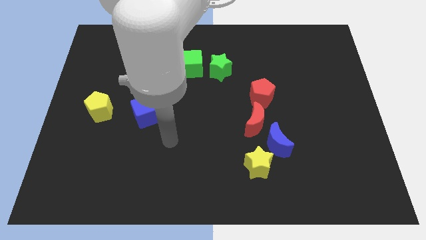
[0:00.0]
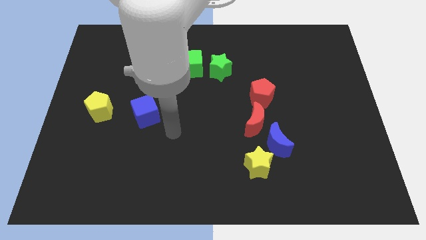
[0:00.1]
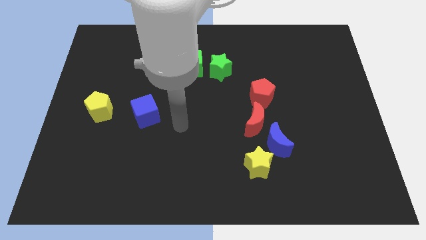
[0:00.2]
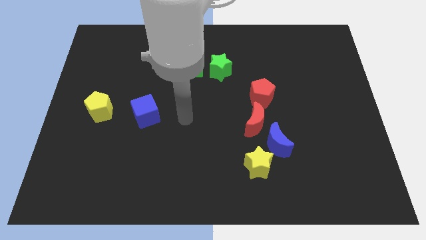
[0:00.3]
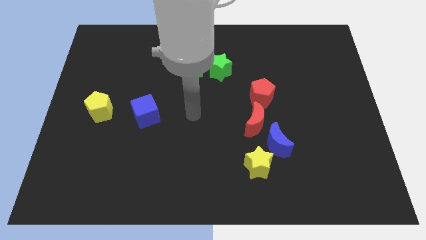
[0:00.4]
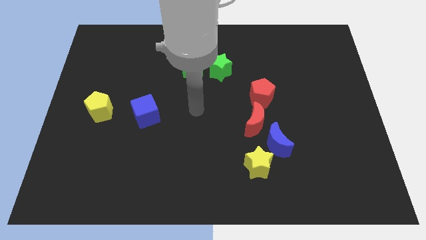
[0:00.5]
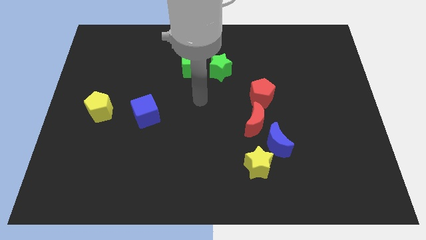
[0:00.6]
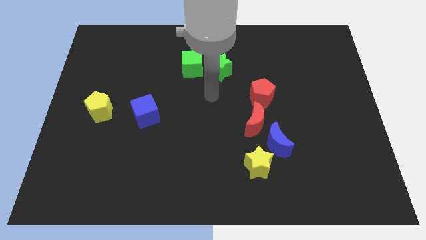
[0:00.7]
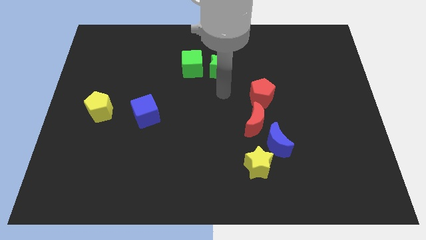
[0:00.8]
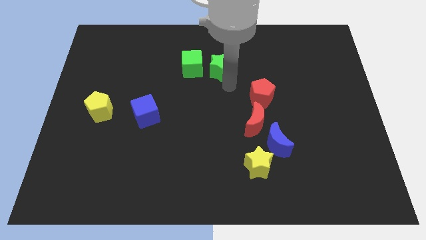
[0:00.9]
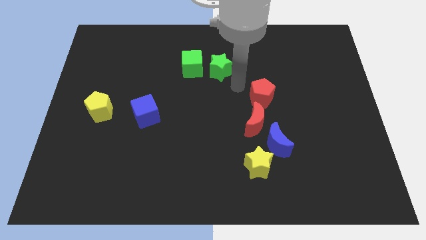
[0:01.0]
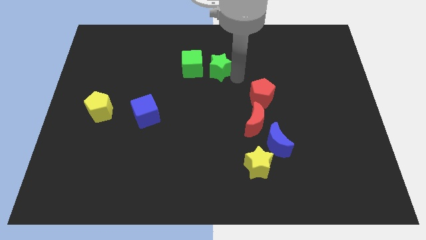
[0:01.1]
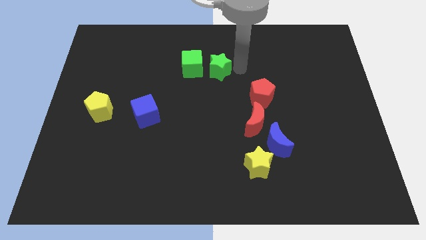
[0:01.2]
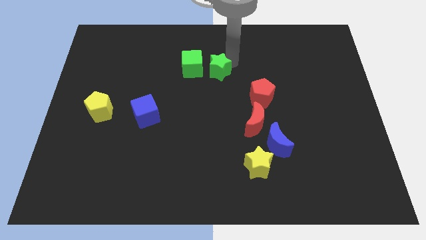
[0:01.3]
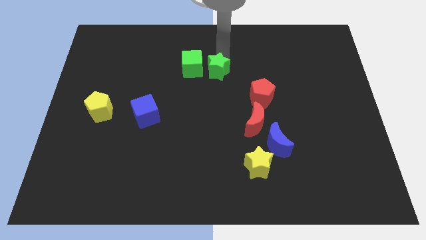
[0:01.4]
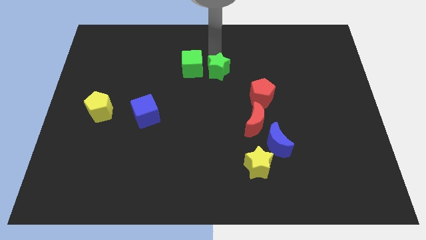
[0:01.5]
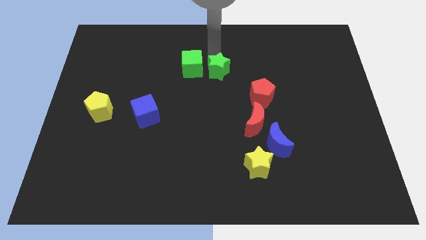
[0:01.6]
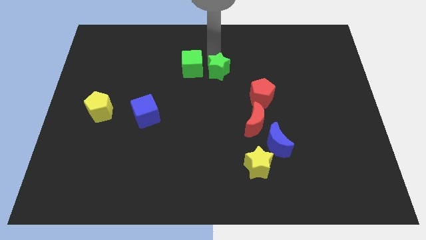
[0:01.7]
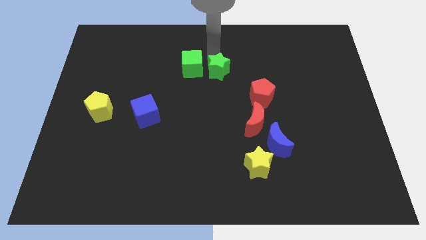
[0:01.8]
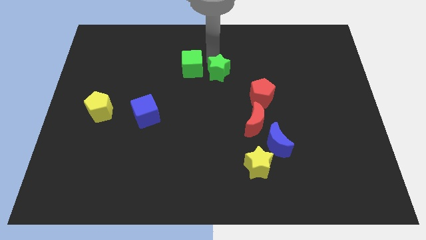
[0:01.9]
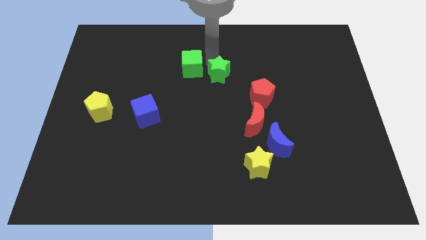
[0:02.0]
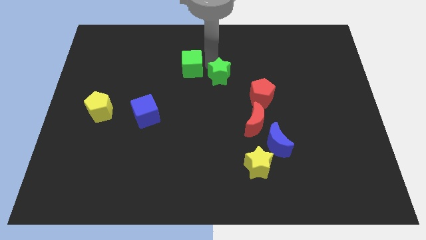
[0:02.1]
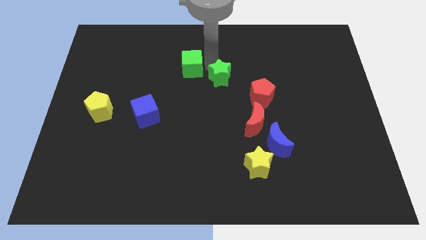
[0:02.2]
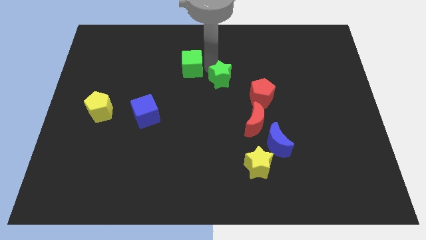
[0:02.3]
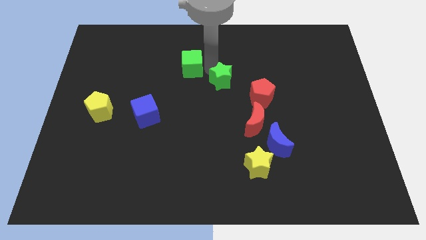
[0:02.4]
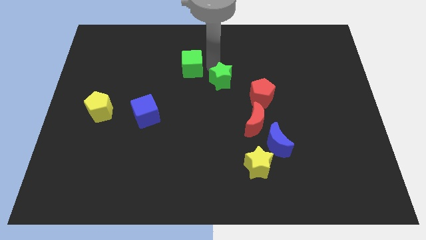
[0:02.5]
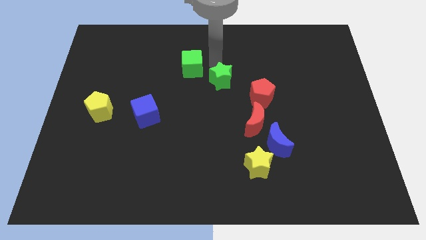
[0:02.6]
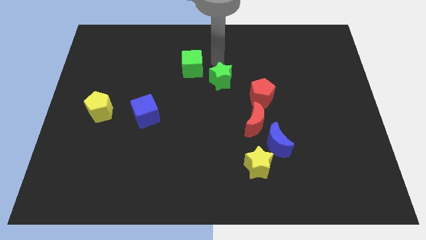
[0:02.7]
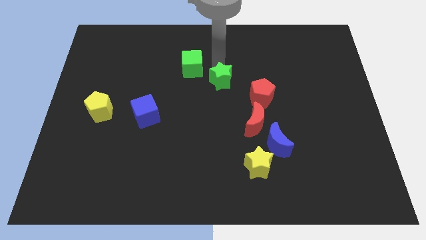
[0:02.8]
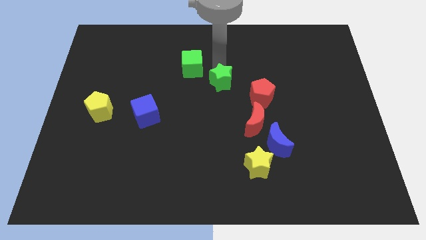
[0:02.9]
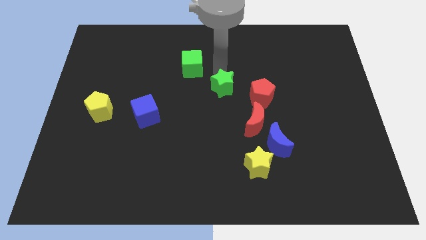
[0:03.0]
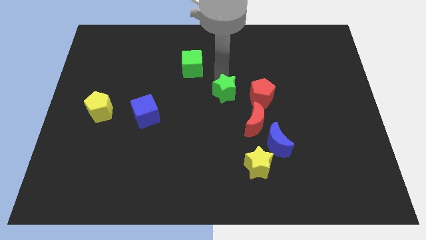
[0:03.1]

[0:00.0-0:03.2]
slightly slide the green star down

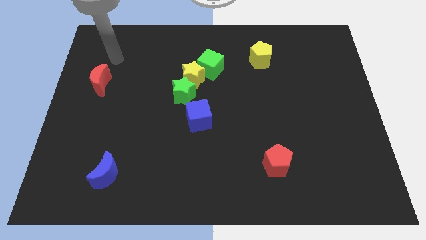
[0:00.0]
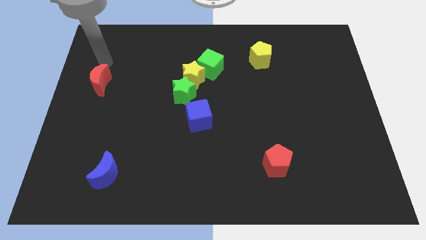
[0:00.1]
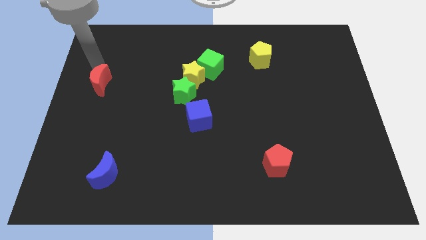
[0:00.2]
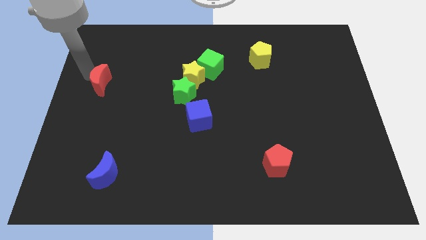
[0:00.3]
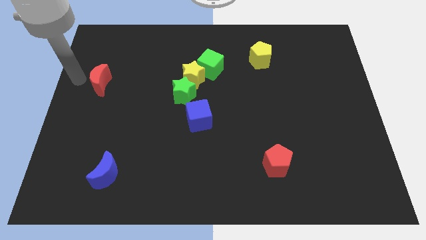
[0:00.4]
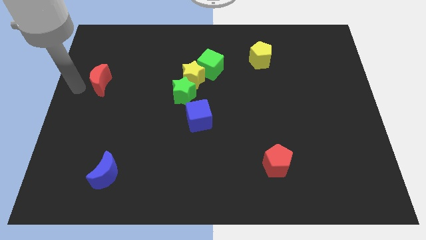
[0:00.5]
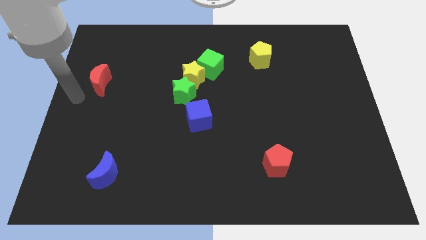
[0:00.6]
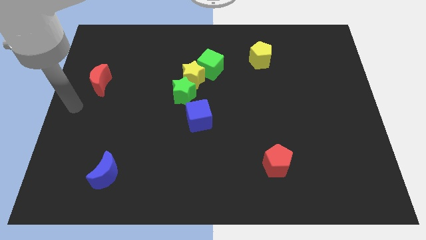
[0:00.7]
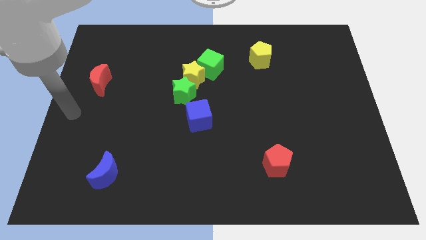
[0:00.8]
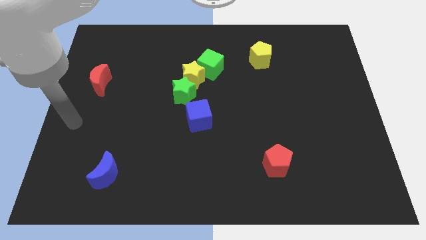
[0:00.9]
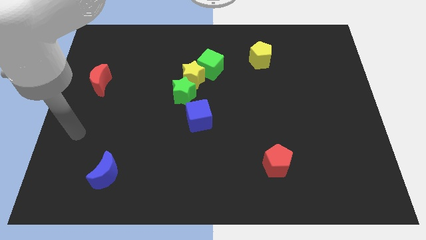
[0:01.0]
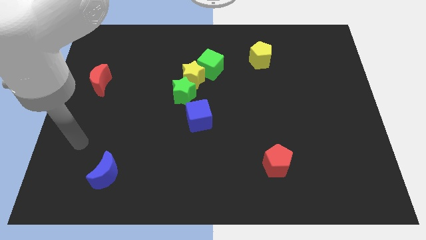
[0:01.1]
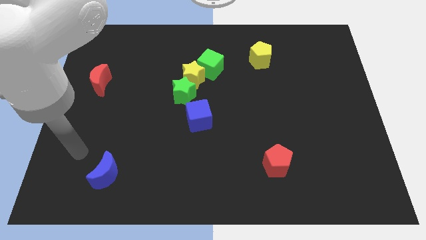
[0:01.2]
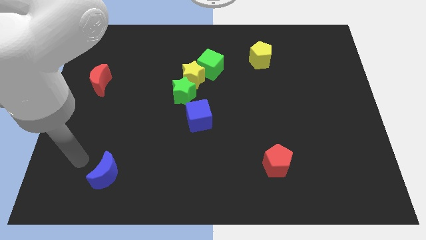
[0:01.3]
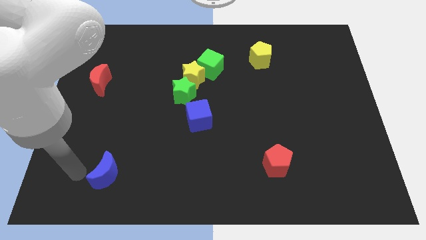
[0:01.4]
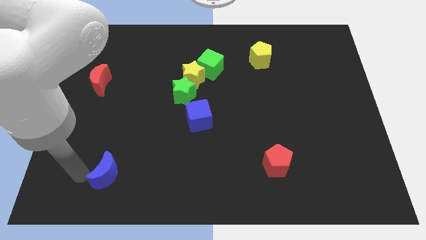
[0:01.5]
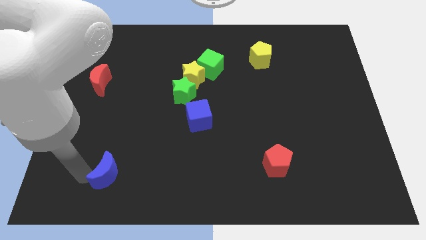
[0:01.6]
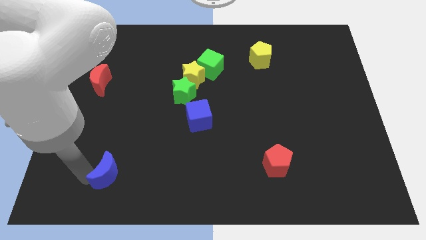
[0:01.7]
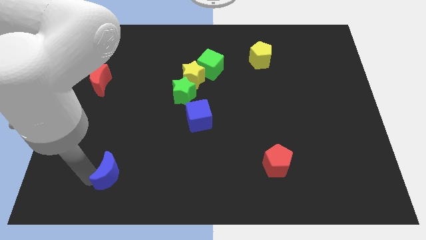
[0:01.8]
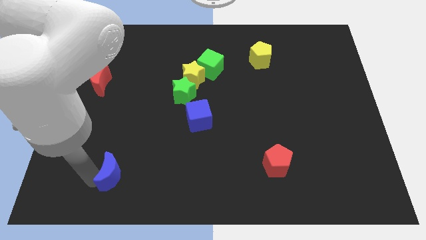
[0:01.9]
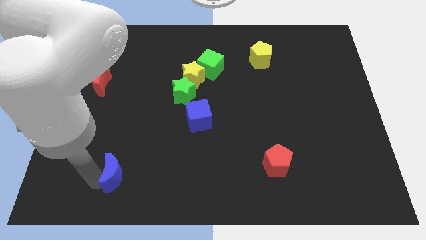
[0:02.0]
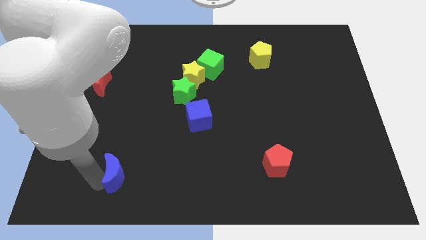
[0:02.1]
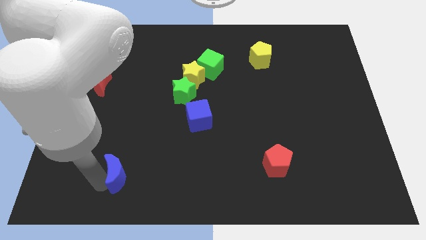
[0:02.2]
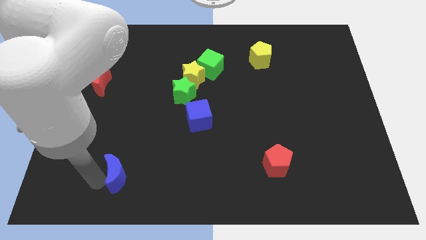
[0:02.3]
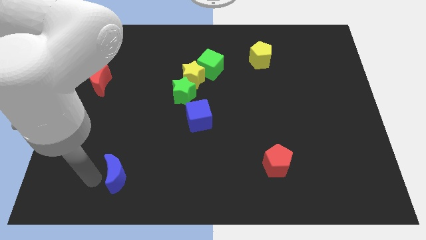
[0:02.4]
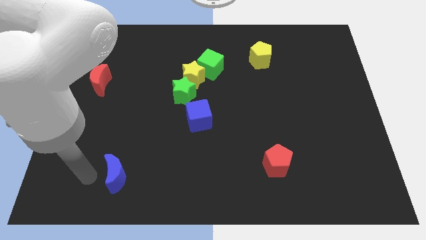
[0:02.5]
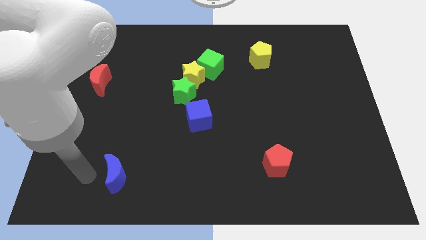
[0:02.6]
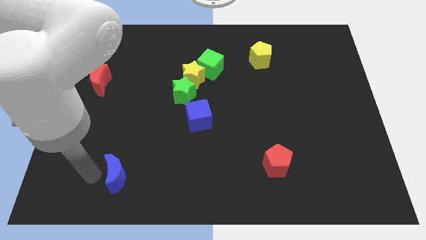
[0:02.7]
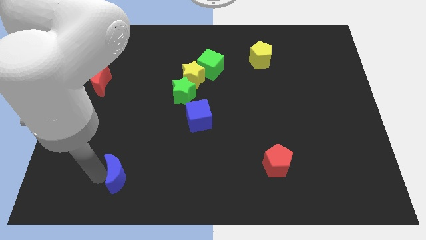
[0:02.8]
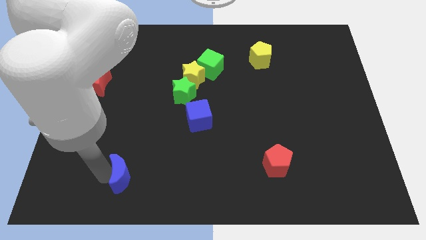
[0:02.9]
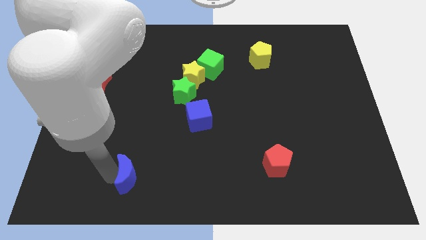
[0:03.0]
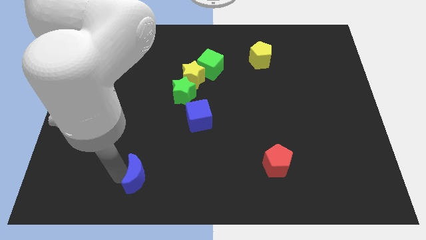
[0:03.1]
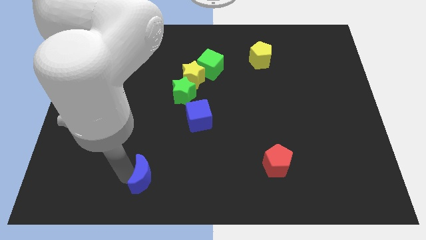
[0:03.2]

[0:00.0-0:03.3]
slightly slide the blue moon to the right

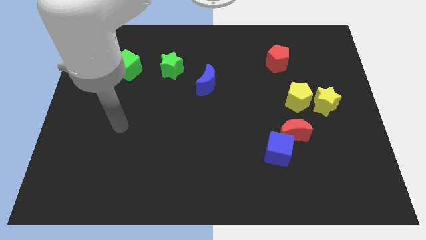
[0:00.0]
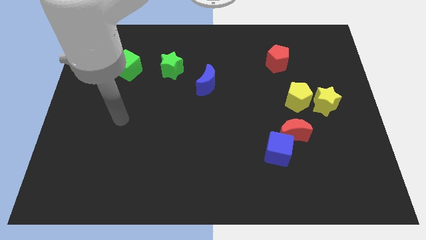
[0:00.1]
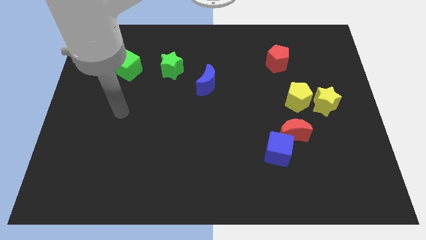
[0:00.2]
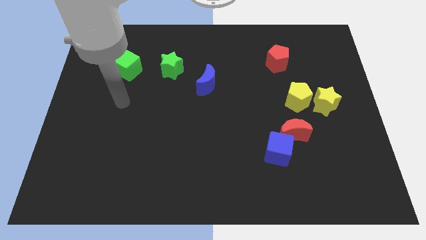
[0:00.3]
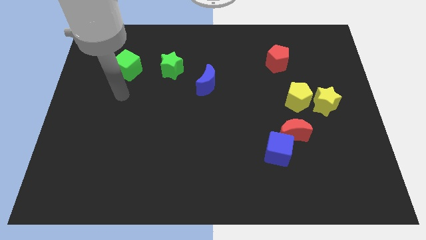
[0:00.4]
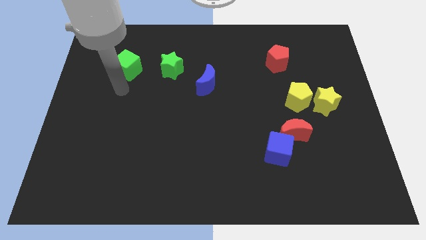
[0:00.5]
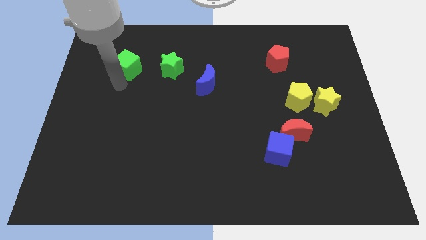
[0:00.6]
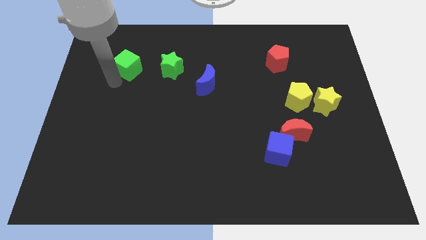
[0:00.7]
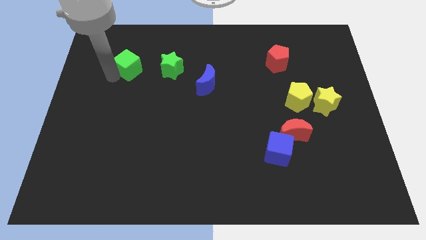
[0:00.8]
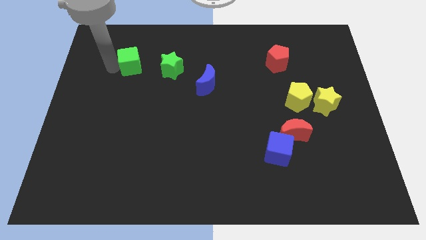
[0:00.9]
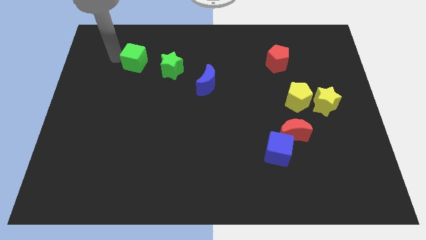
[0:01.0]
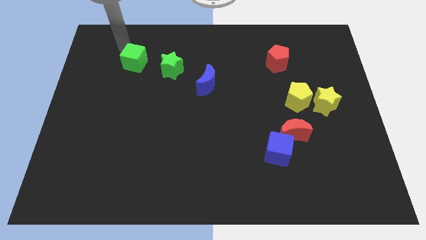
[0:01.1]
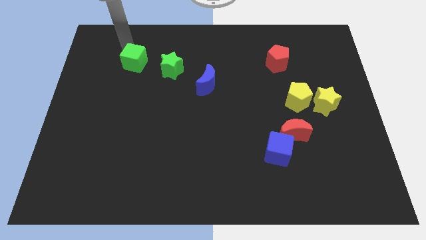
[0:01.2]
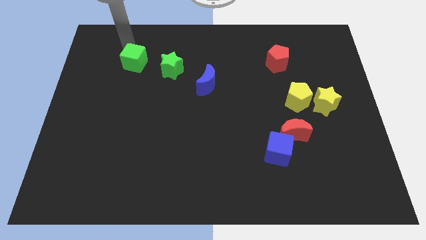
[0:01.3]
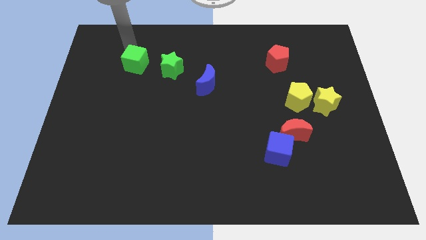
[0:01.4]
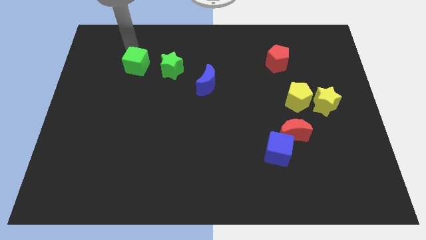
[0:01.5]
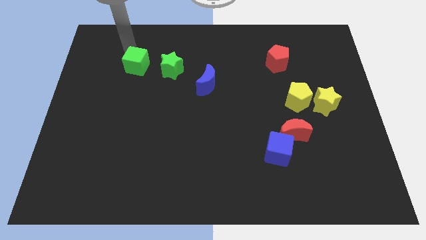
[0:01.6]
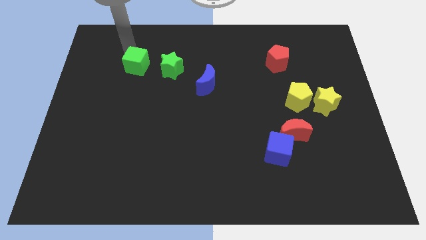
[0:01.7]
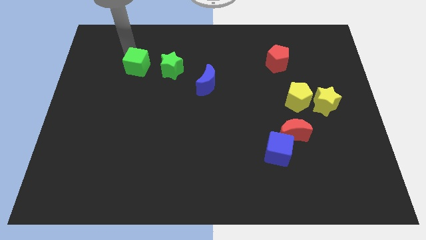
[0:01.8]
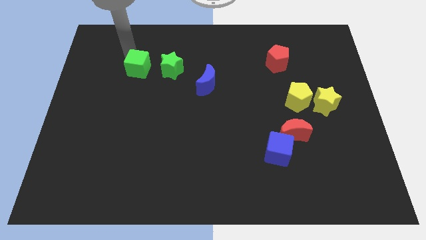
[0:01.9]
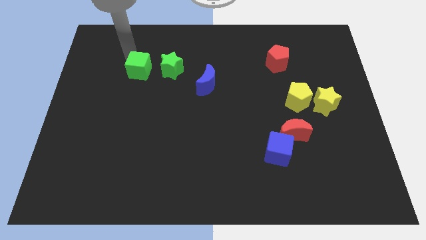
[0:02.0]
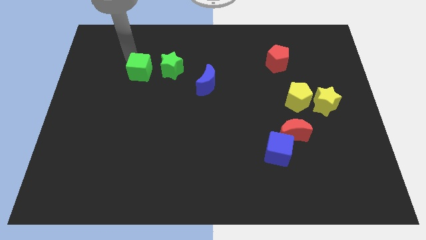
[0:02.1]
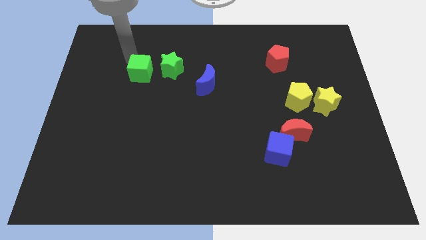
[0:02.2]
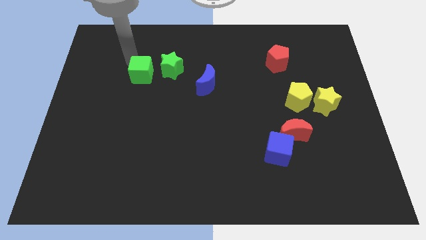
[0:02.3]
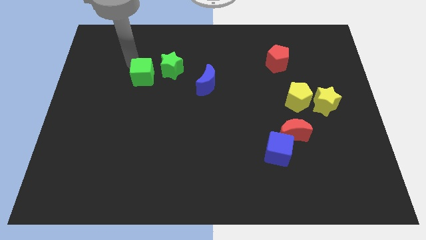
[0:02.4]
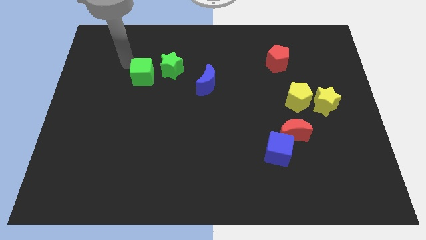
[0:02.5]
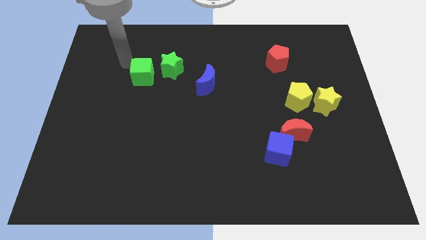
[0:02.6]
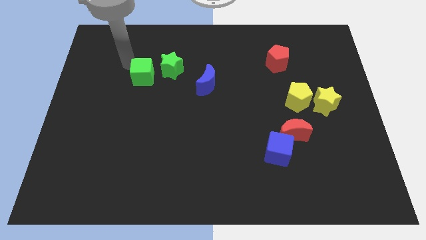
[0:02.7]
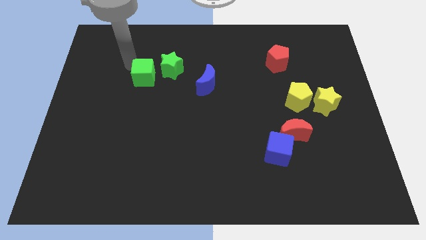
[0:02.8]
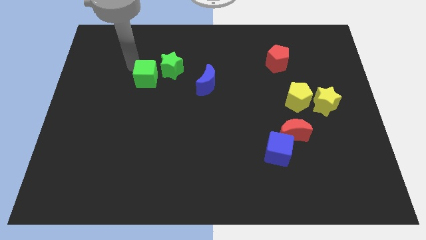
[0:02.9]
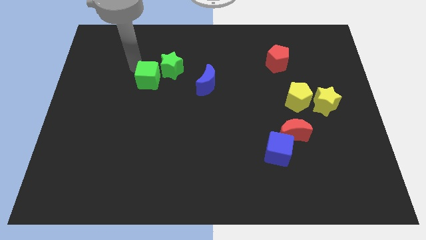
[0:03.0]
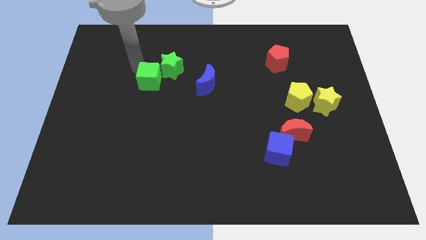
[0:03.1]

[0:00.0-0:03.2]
slide the green cube down and right diagonally slightly
